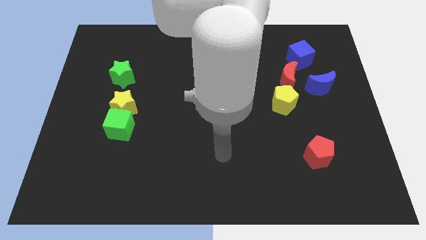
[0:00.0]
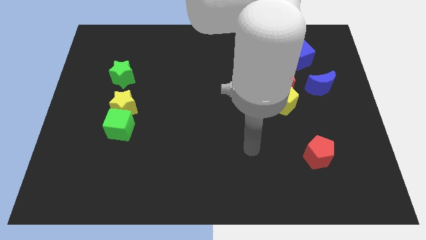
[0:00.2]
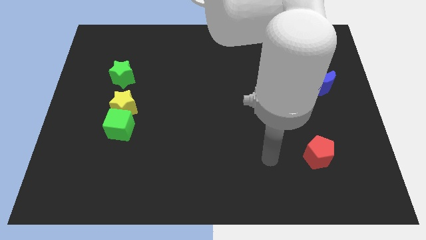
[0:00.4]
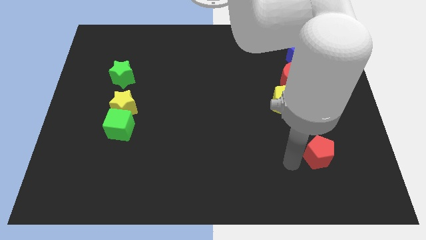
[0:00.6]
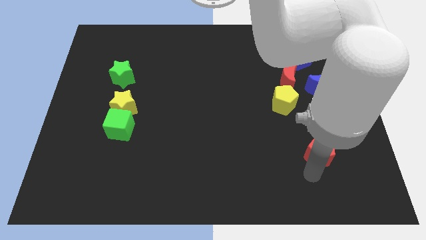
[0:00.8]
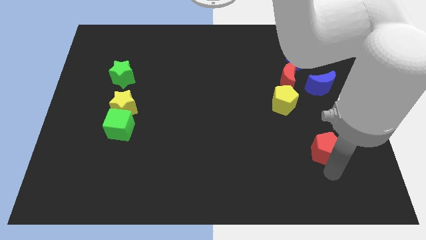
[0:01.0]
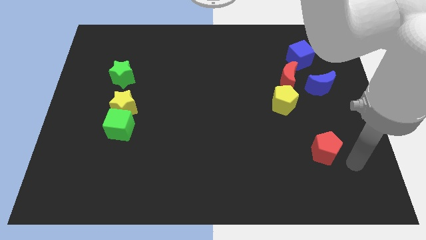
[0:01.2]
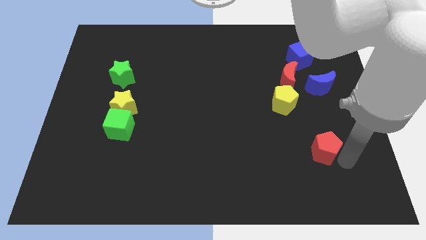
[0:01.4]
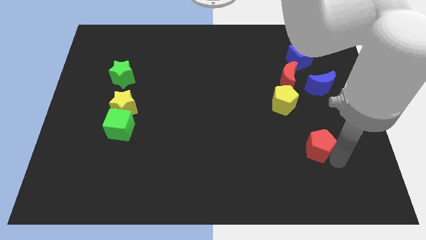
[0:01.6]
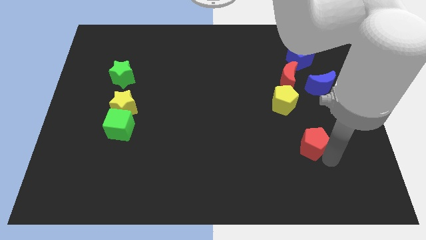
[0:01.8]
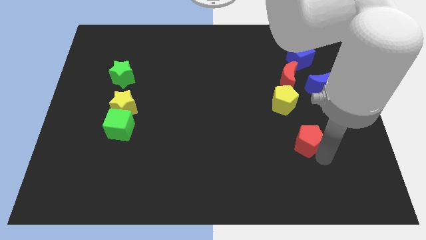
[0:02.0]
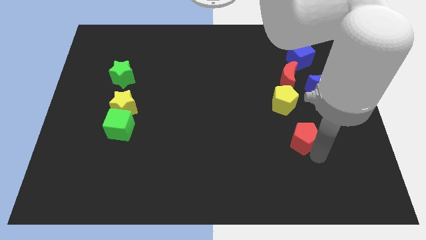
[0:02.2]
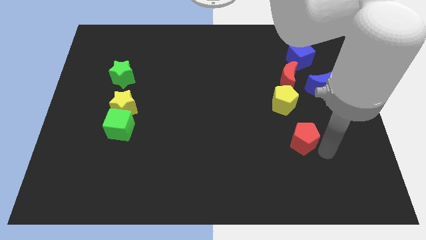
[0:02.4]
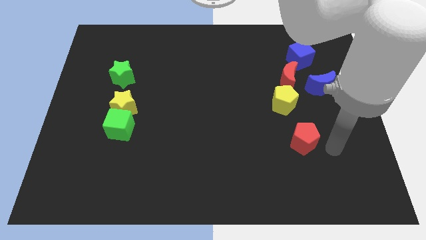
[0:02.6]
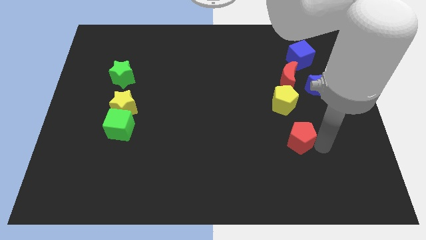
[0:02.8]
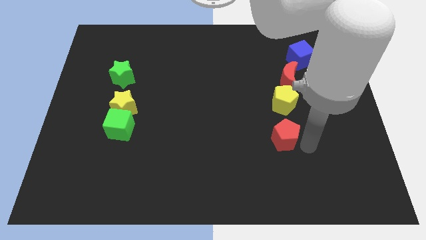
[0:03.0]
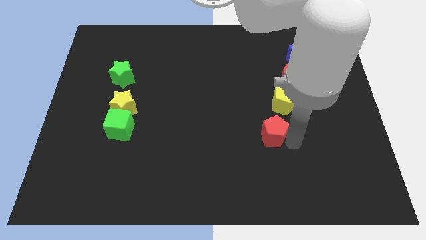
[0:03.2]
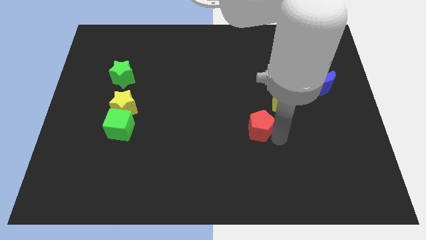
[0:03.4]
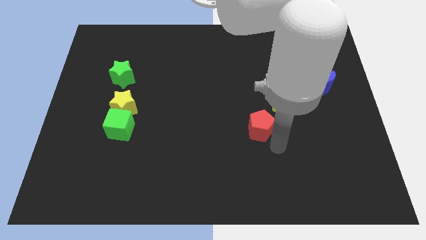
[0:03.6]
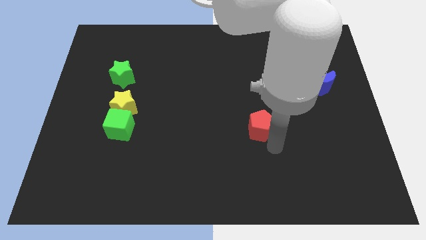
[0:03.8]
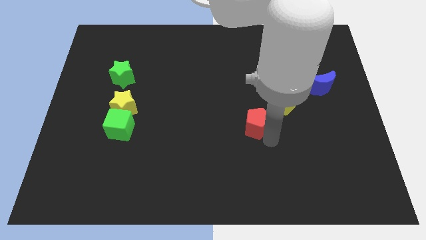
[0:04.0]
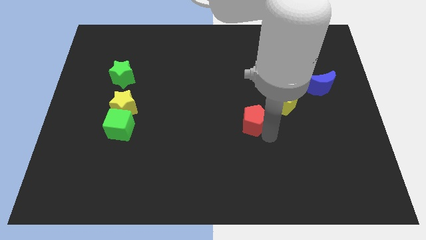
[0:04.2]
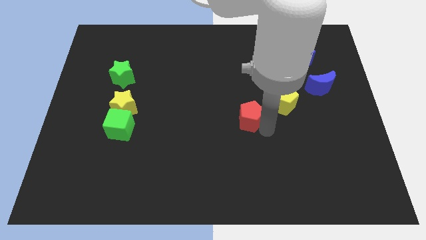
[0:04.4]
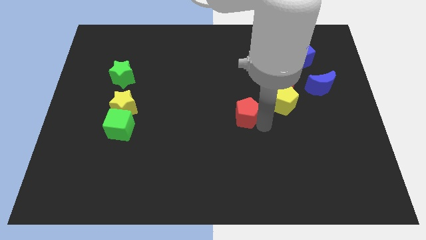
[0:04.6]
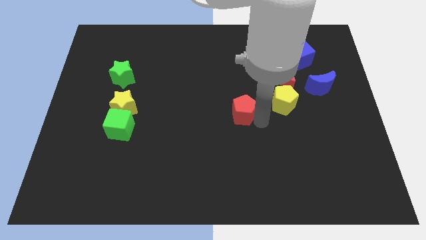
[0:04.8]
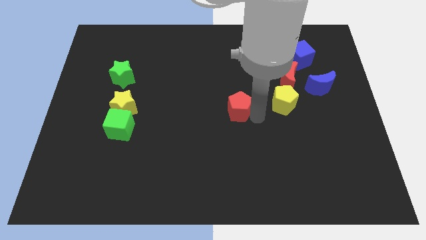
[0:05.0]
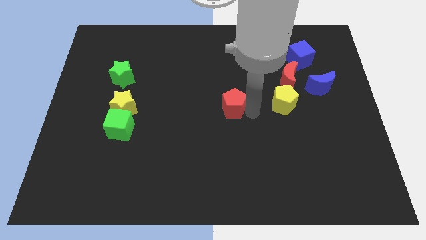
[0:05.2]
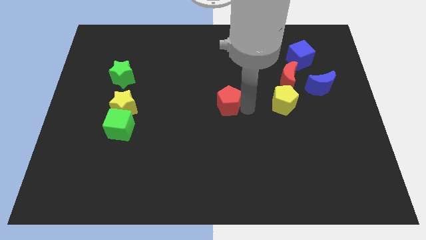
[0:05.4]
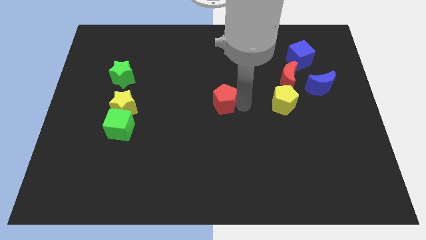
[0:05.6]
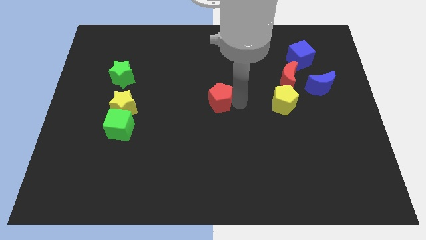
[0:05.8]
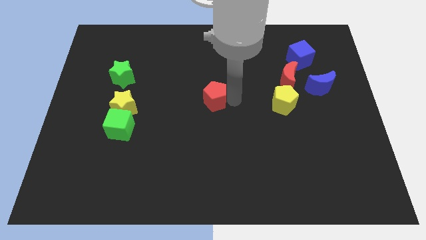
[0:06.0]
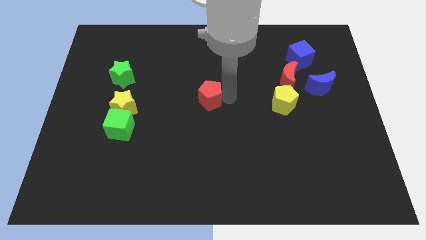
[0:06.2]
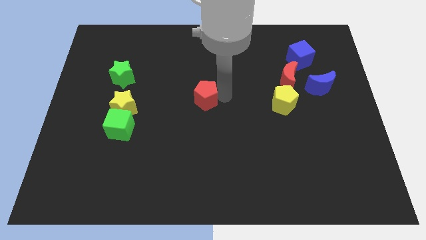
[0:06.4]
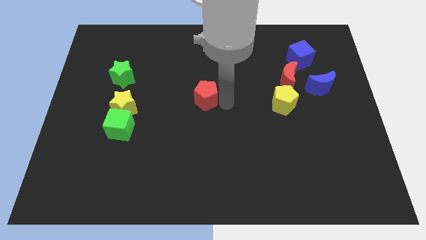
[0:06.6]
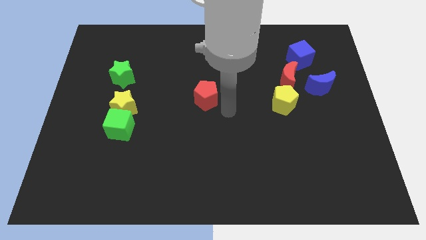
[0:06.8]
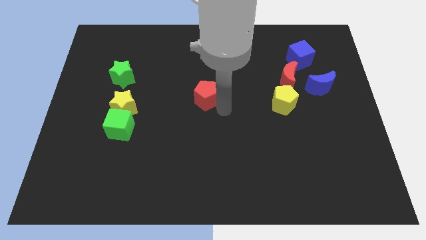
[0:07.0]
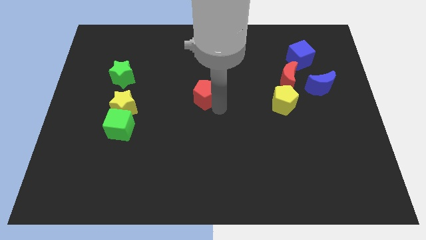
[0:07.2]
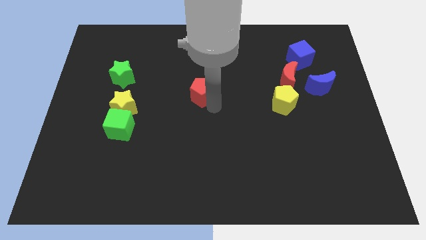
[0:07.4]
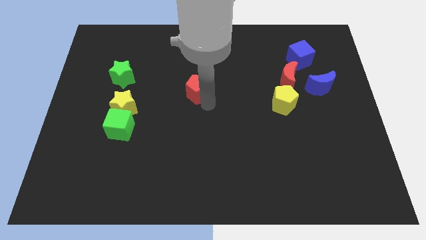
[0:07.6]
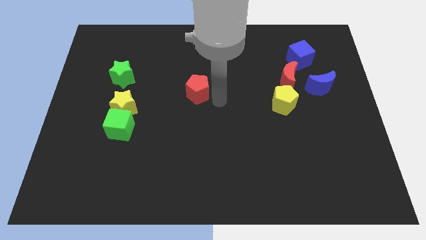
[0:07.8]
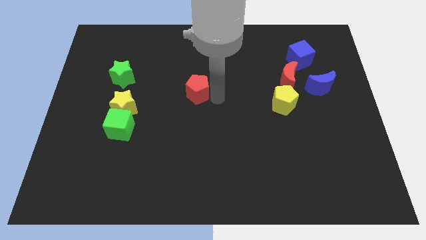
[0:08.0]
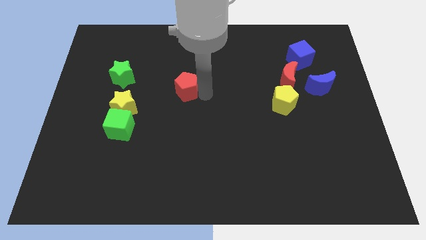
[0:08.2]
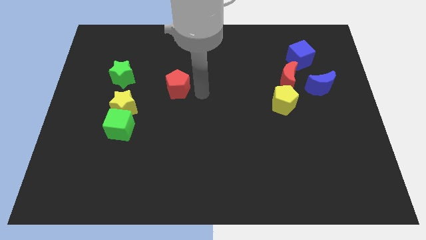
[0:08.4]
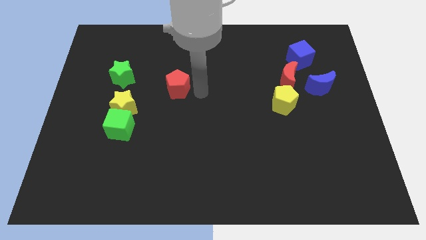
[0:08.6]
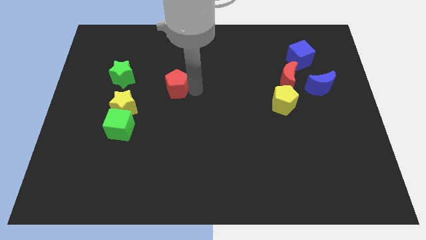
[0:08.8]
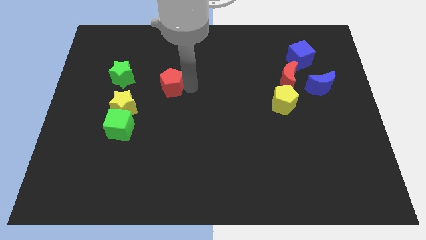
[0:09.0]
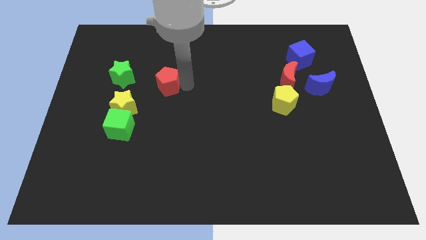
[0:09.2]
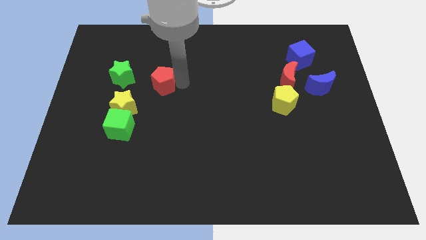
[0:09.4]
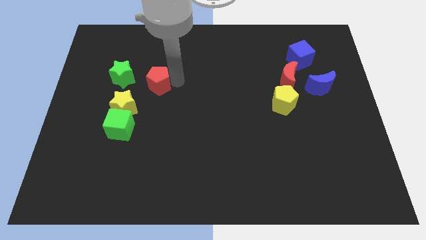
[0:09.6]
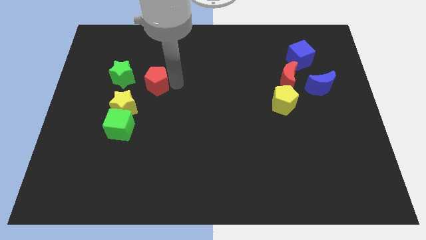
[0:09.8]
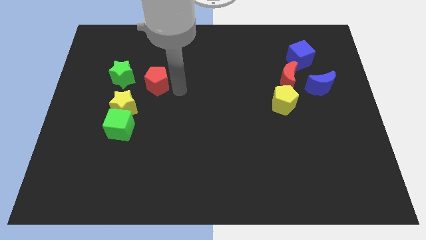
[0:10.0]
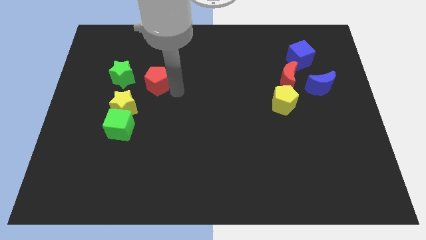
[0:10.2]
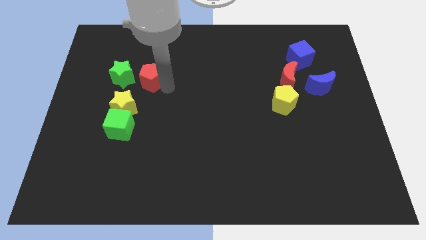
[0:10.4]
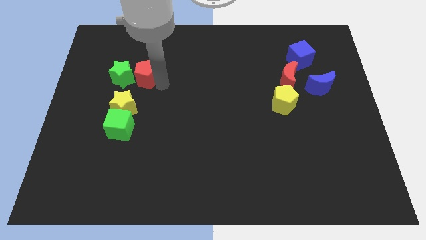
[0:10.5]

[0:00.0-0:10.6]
push the red pentagon next to the green star

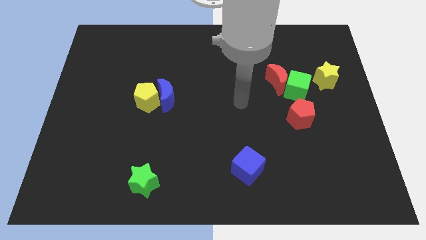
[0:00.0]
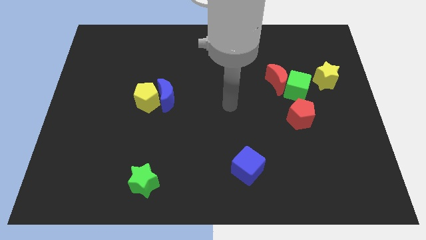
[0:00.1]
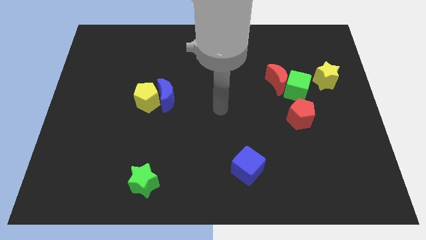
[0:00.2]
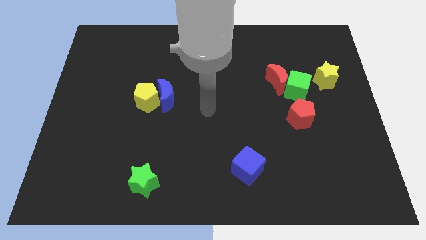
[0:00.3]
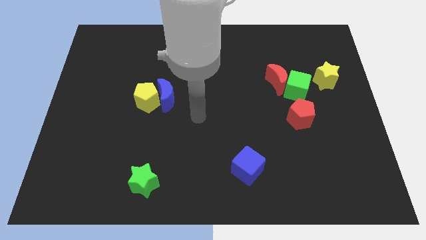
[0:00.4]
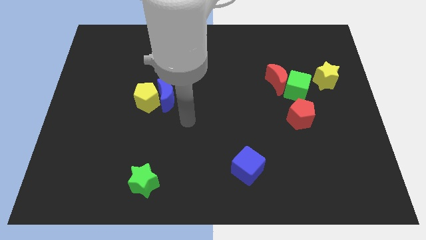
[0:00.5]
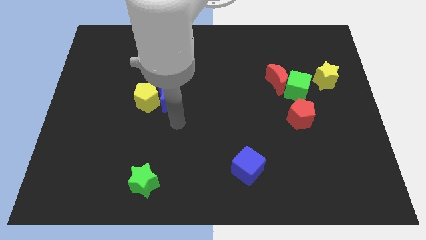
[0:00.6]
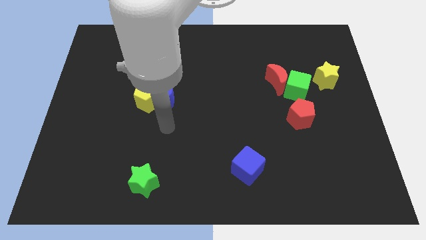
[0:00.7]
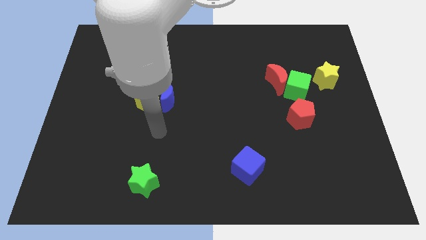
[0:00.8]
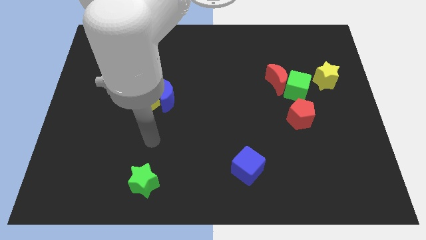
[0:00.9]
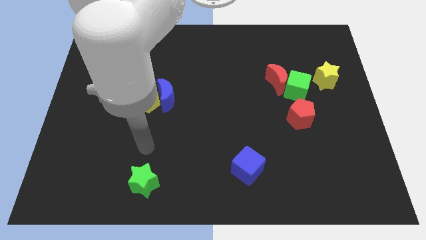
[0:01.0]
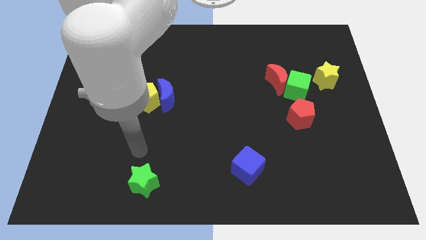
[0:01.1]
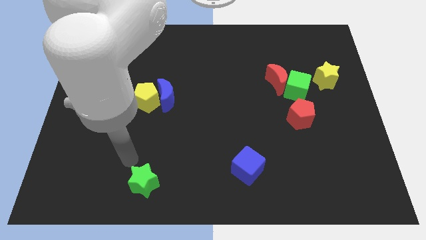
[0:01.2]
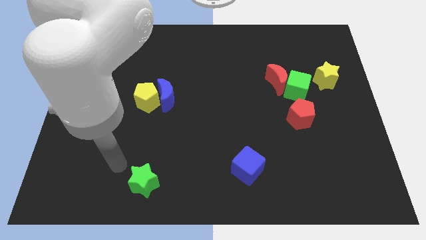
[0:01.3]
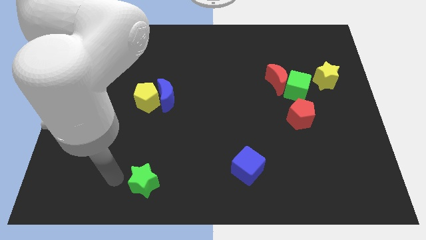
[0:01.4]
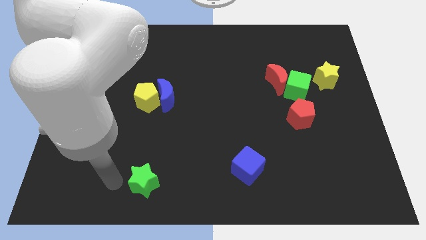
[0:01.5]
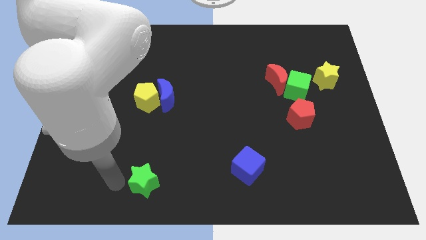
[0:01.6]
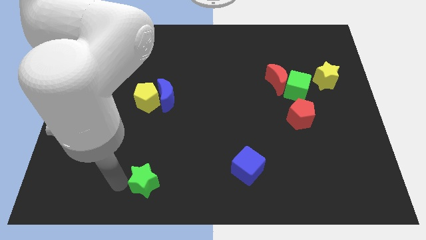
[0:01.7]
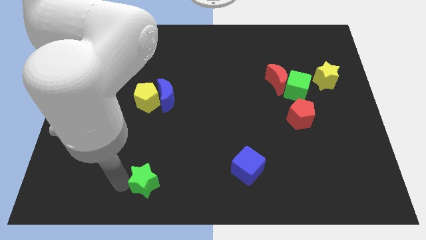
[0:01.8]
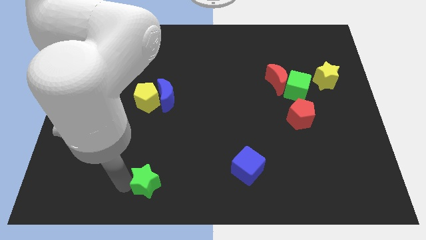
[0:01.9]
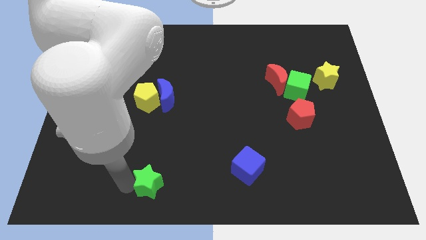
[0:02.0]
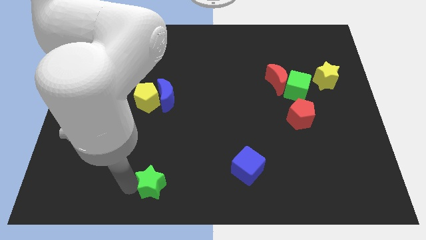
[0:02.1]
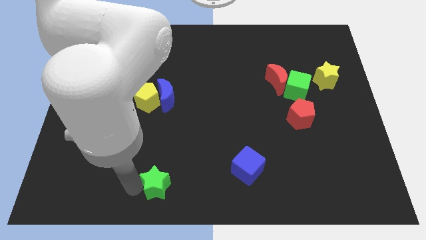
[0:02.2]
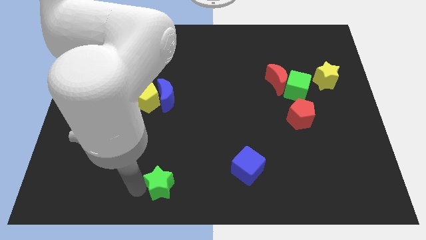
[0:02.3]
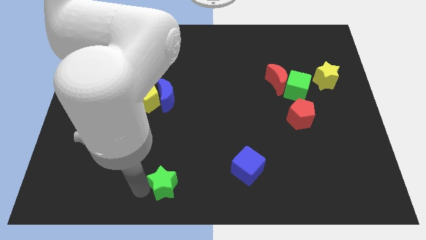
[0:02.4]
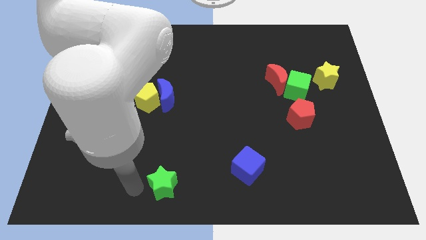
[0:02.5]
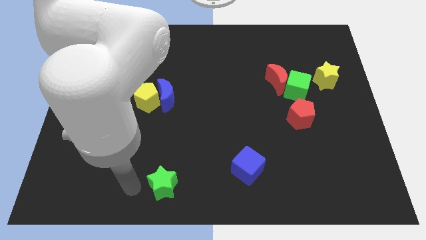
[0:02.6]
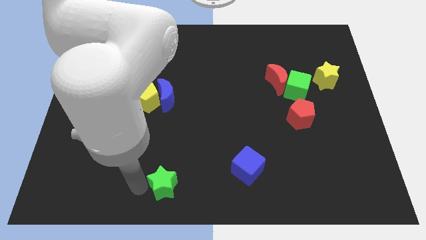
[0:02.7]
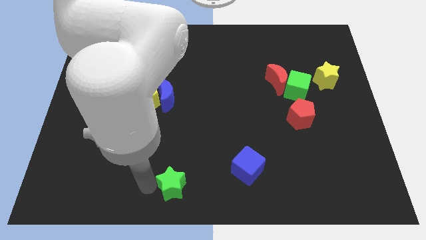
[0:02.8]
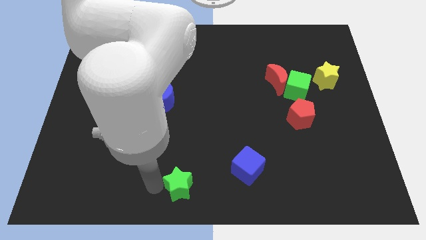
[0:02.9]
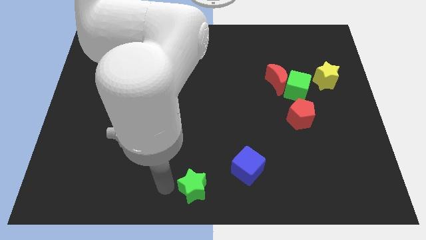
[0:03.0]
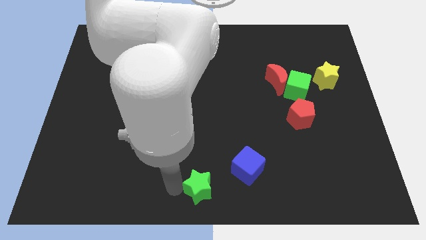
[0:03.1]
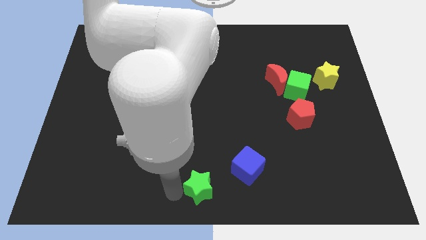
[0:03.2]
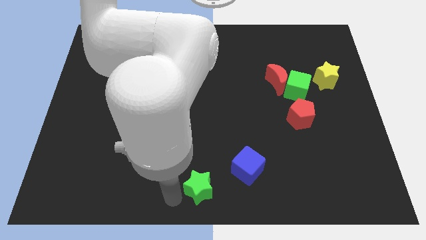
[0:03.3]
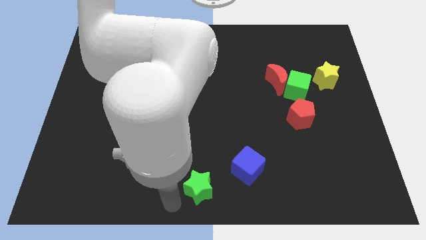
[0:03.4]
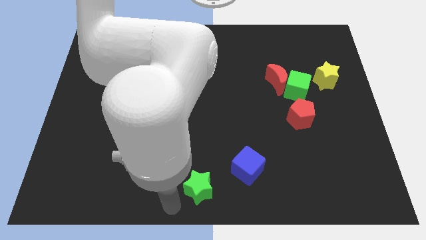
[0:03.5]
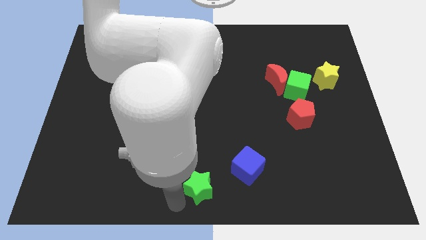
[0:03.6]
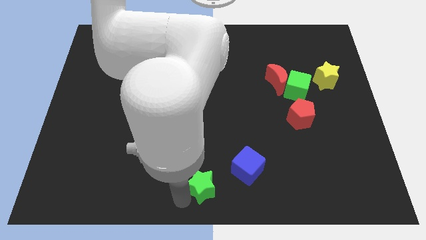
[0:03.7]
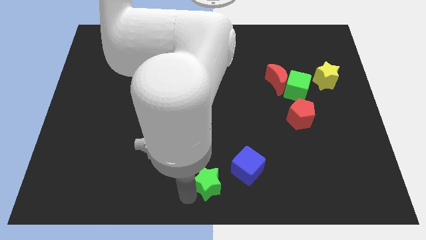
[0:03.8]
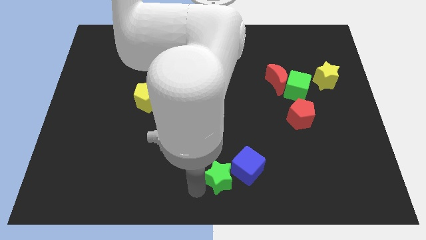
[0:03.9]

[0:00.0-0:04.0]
move the green star to the blue cube
